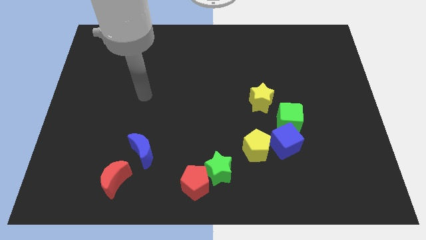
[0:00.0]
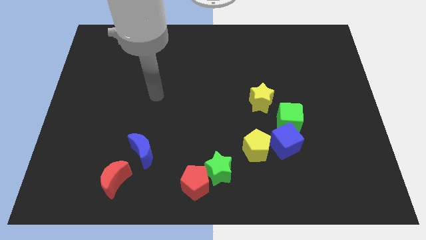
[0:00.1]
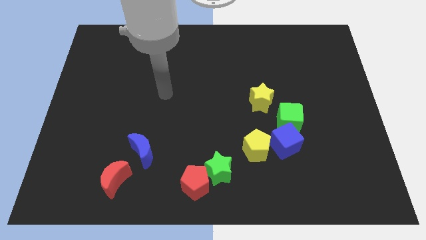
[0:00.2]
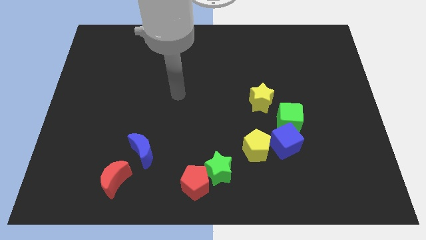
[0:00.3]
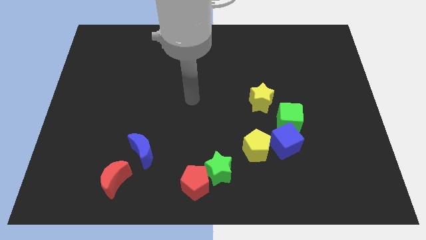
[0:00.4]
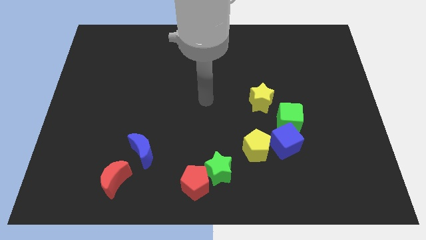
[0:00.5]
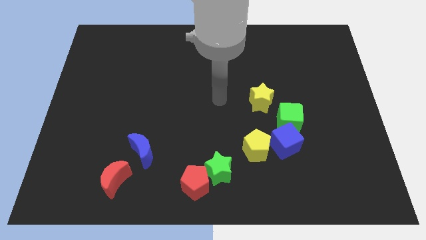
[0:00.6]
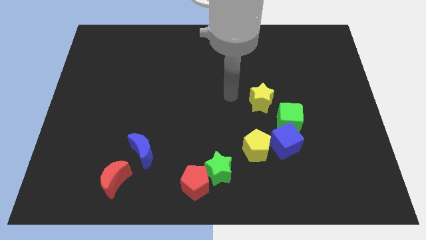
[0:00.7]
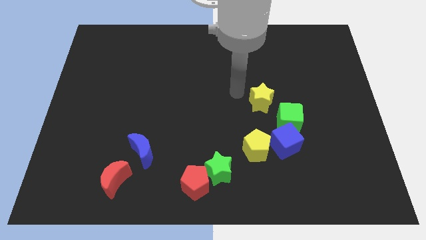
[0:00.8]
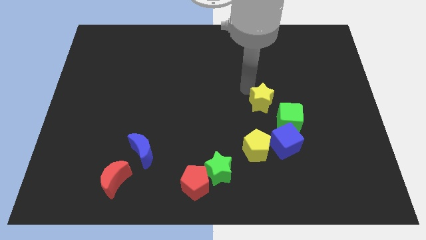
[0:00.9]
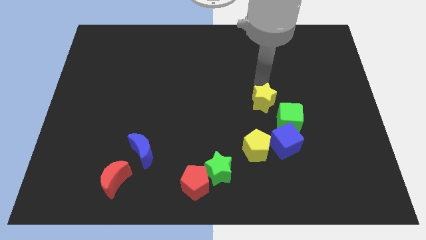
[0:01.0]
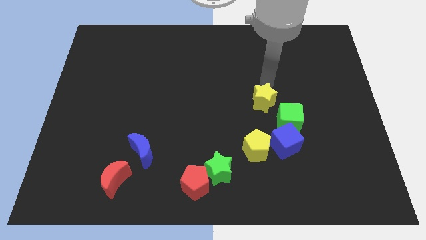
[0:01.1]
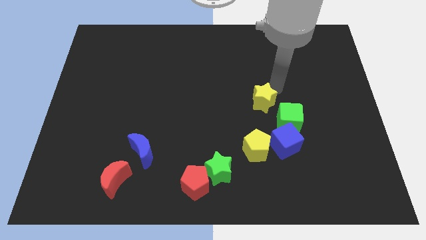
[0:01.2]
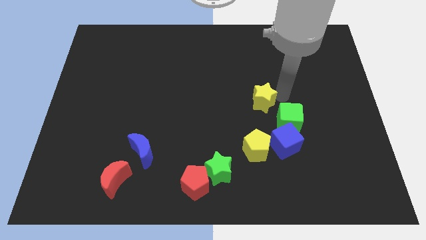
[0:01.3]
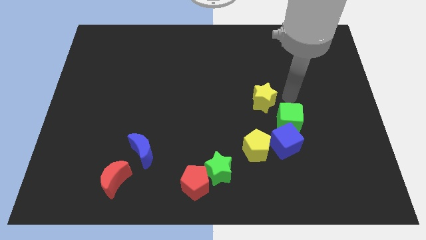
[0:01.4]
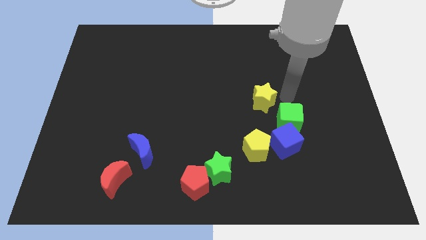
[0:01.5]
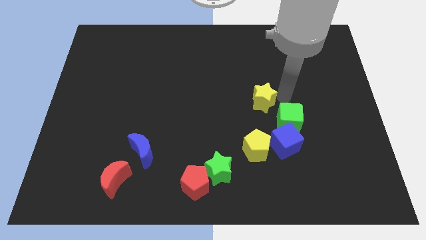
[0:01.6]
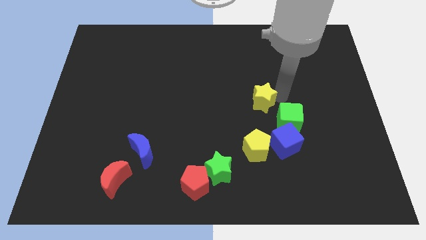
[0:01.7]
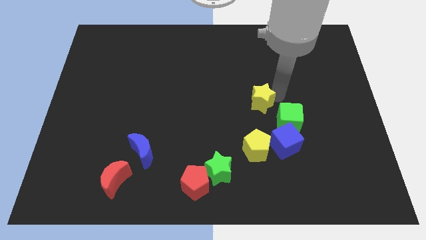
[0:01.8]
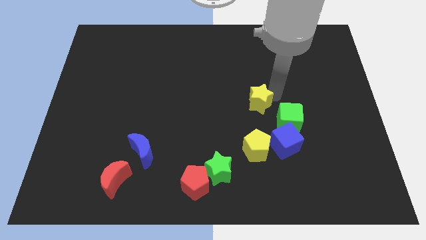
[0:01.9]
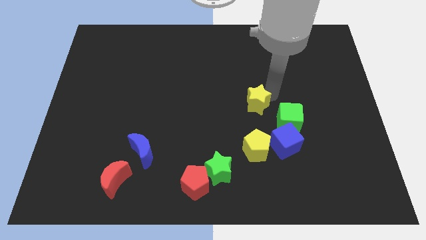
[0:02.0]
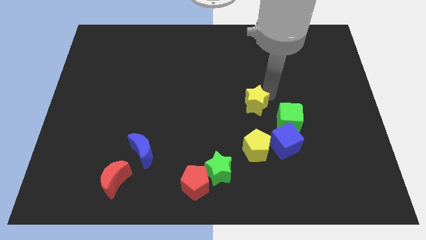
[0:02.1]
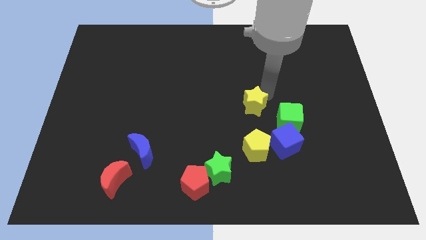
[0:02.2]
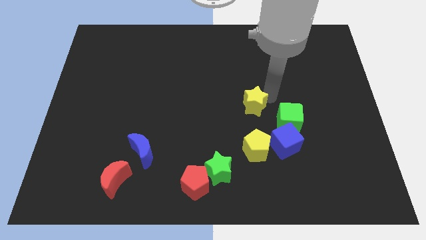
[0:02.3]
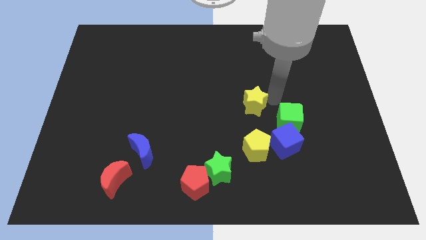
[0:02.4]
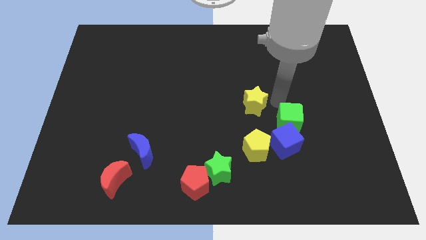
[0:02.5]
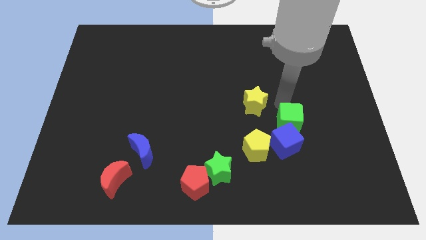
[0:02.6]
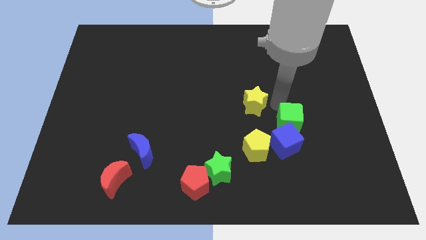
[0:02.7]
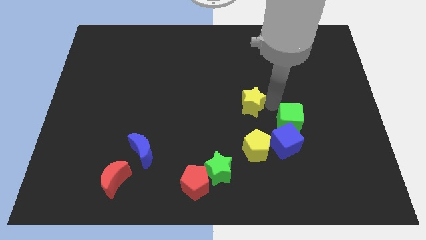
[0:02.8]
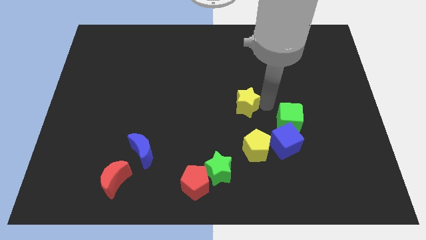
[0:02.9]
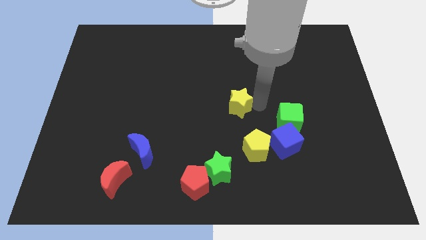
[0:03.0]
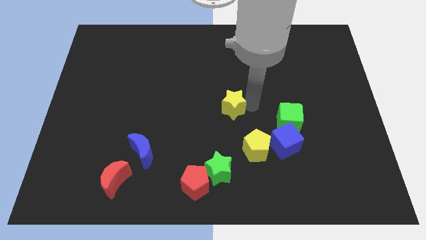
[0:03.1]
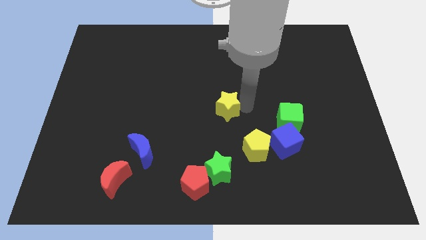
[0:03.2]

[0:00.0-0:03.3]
slide the yellow star to the left somewhat

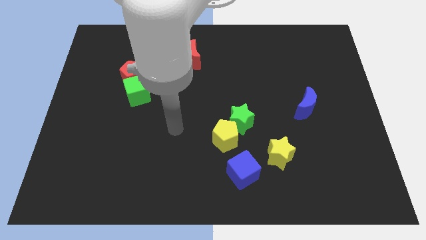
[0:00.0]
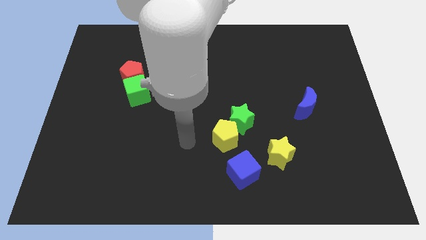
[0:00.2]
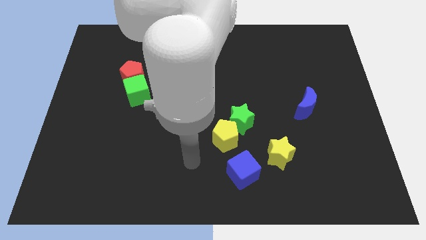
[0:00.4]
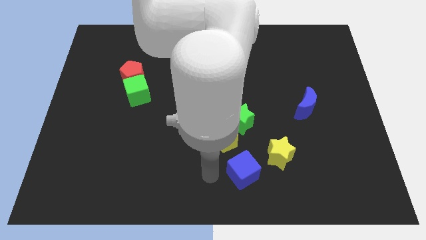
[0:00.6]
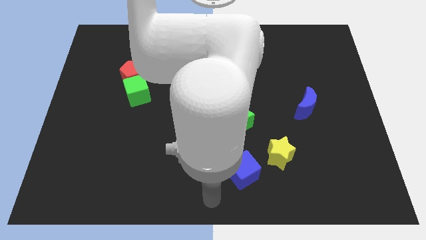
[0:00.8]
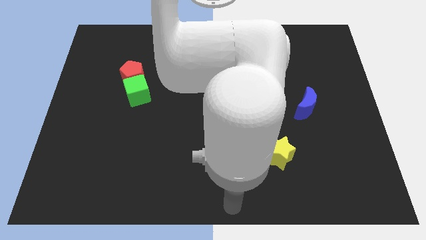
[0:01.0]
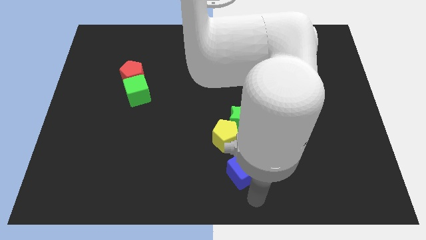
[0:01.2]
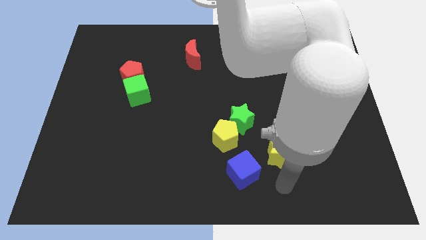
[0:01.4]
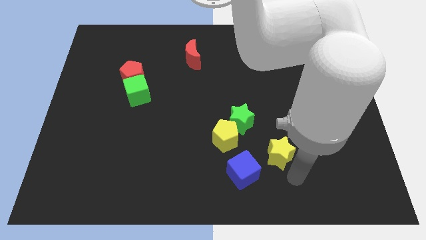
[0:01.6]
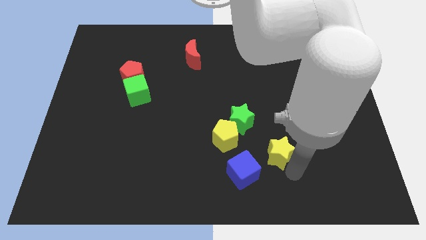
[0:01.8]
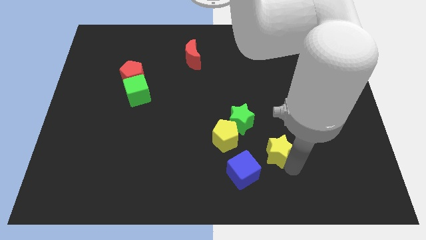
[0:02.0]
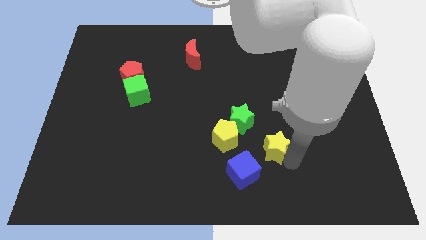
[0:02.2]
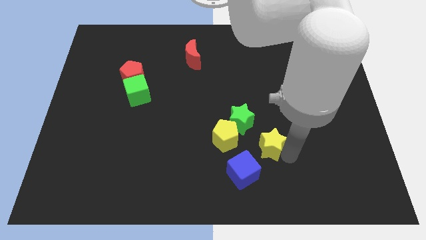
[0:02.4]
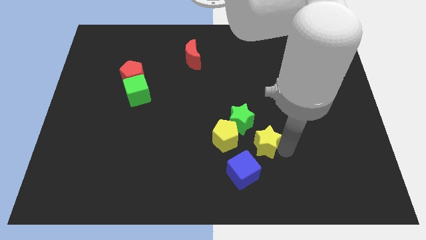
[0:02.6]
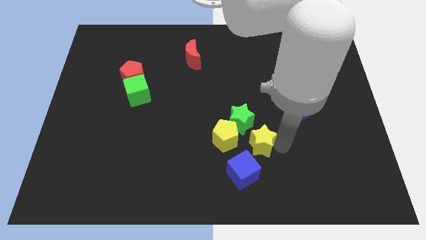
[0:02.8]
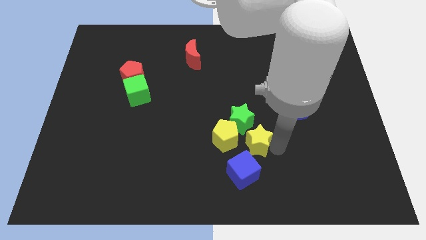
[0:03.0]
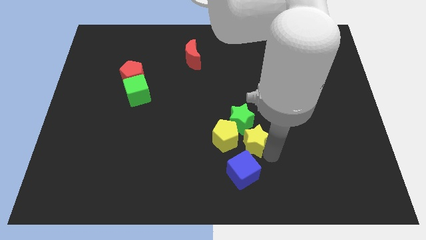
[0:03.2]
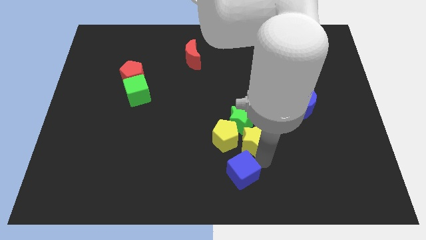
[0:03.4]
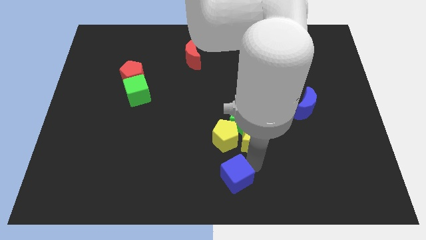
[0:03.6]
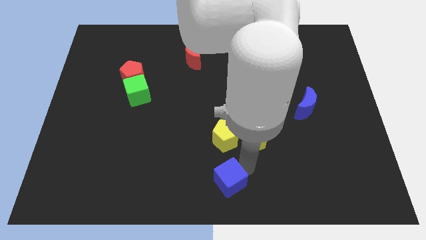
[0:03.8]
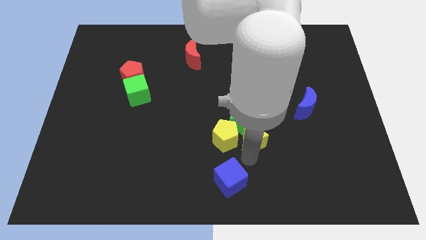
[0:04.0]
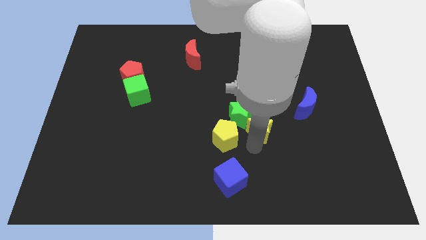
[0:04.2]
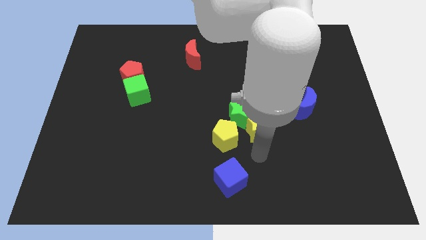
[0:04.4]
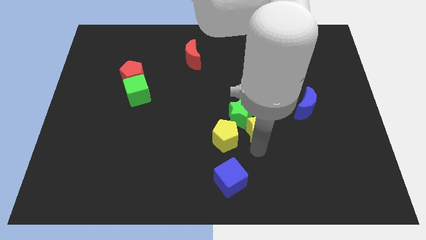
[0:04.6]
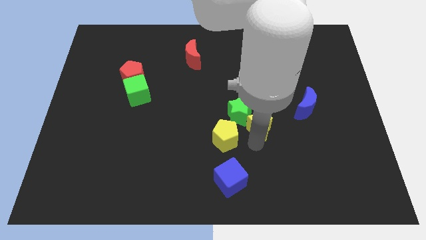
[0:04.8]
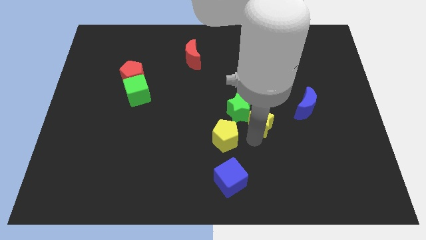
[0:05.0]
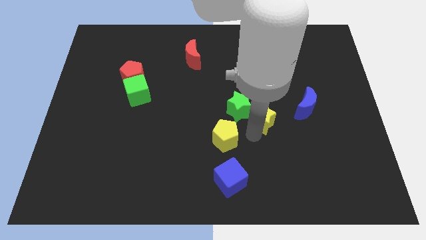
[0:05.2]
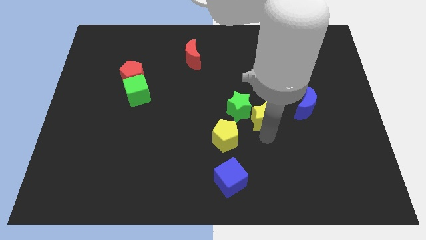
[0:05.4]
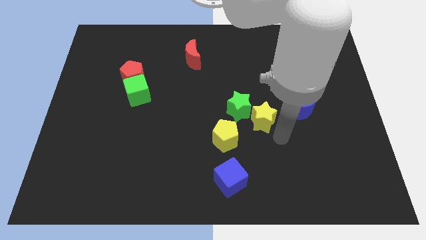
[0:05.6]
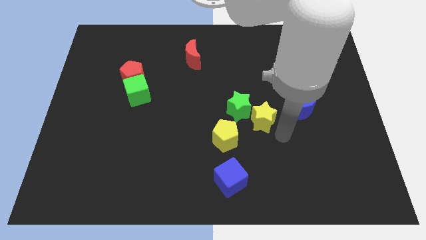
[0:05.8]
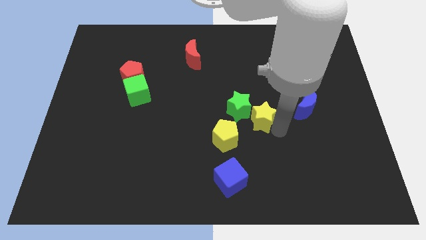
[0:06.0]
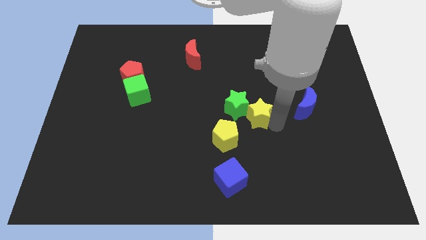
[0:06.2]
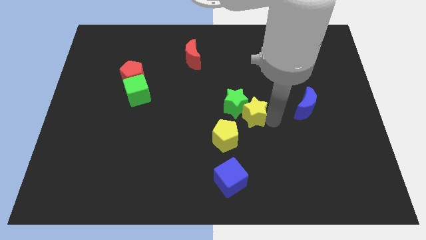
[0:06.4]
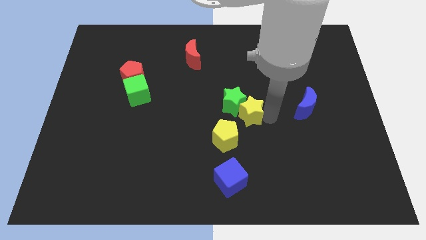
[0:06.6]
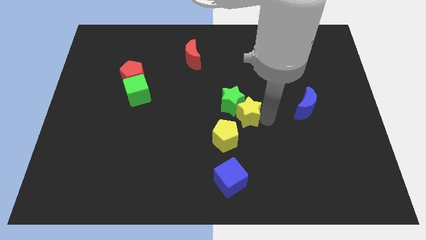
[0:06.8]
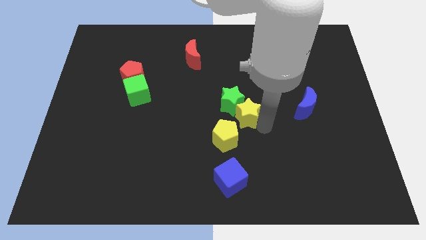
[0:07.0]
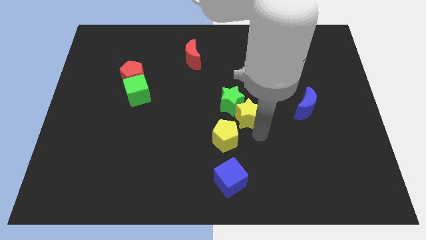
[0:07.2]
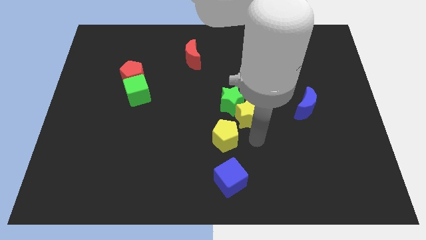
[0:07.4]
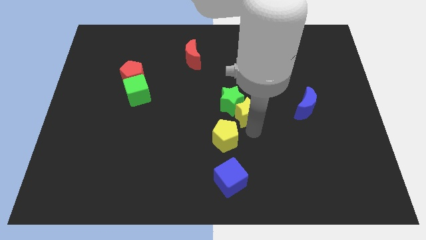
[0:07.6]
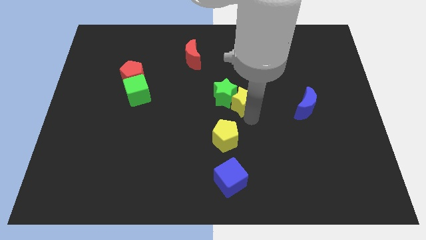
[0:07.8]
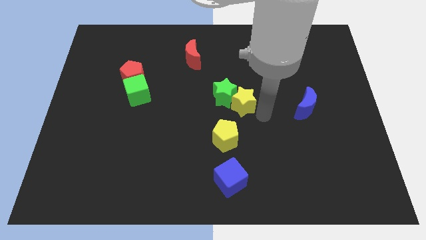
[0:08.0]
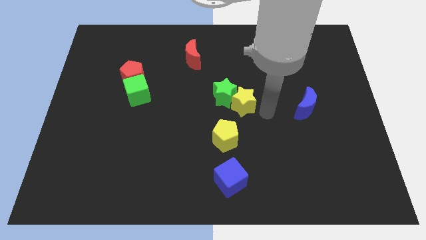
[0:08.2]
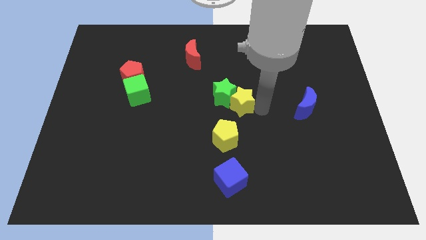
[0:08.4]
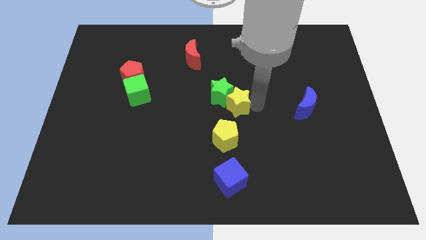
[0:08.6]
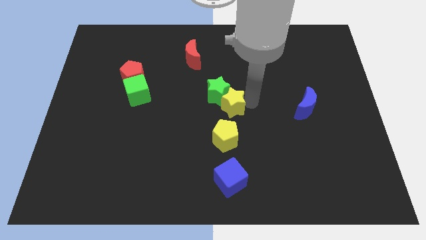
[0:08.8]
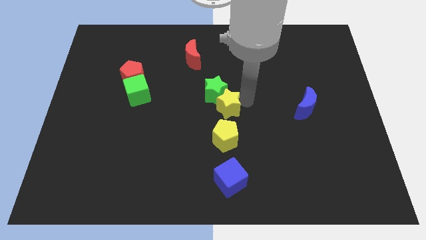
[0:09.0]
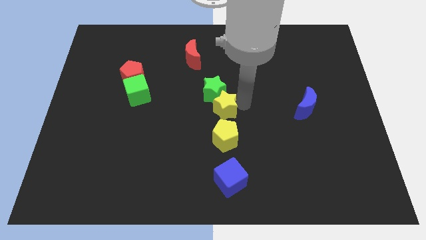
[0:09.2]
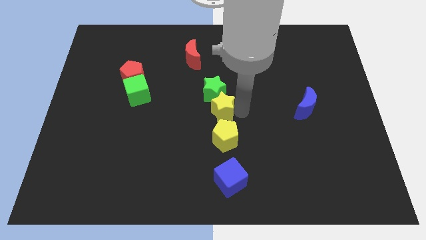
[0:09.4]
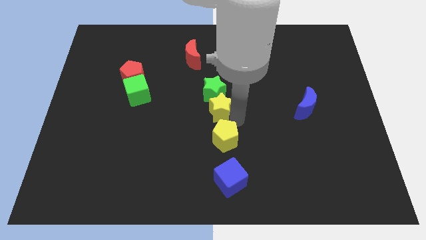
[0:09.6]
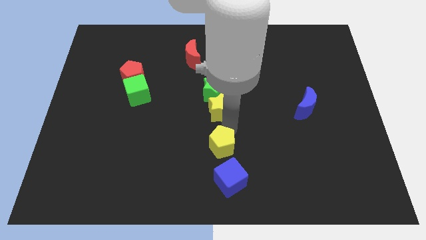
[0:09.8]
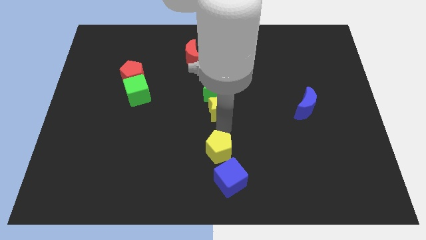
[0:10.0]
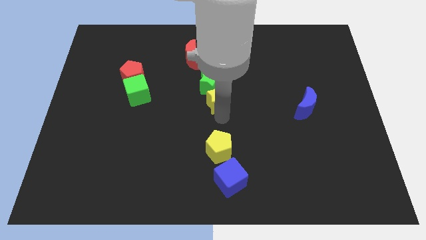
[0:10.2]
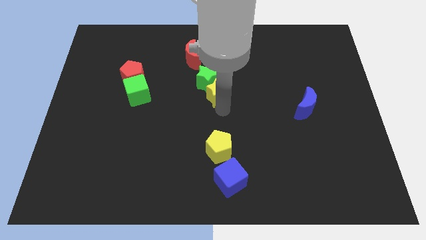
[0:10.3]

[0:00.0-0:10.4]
push the yellow star upwards and left diagonally
